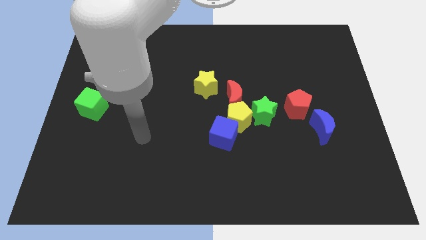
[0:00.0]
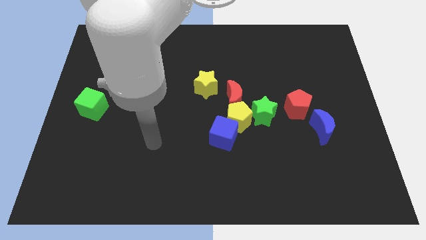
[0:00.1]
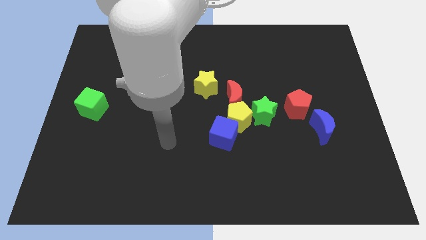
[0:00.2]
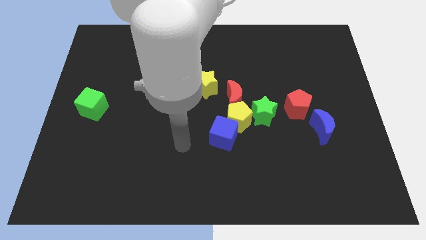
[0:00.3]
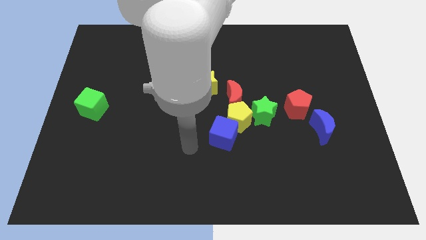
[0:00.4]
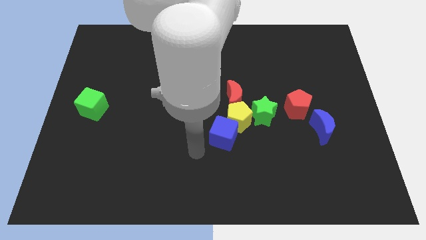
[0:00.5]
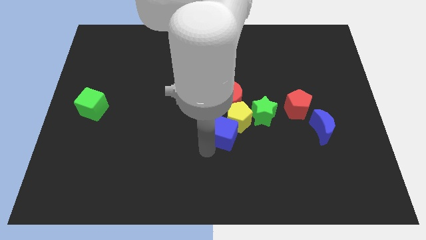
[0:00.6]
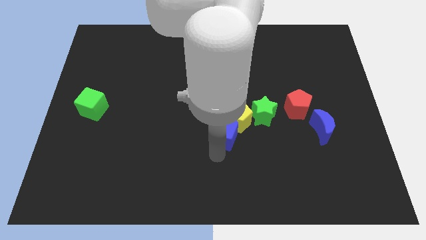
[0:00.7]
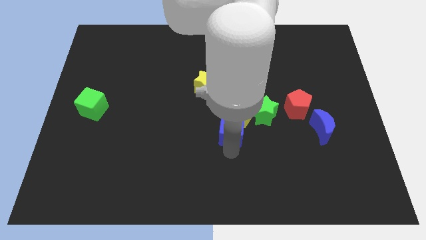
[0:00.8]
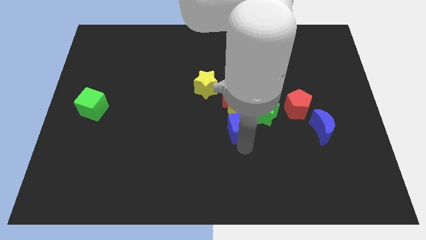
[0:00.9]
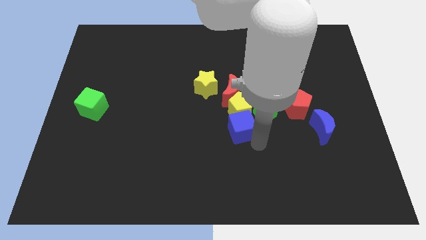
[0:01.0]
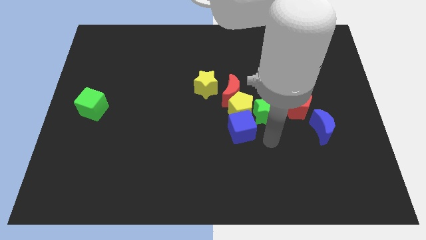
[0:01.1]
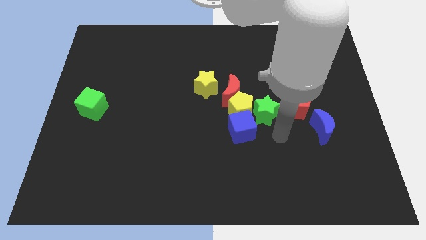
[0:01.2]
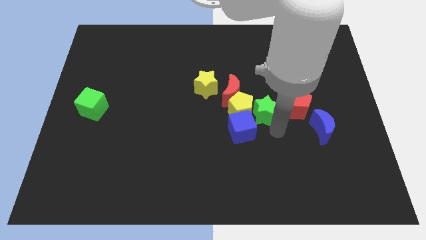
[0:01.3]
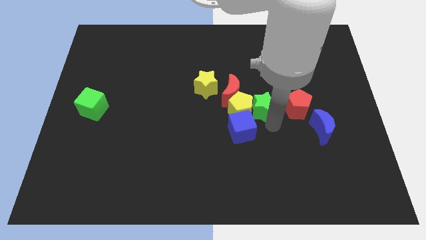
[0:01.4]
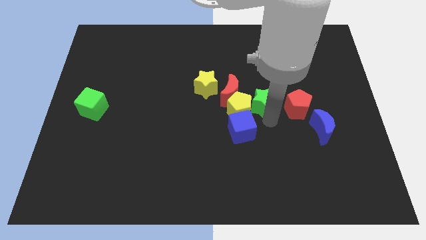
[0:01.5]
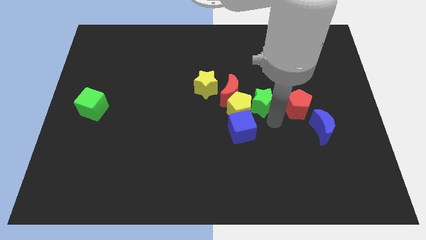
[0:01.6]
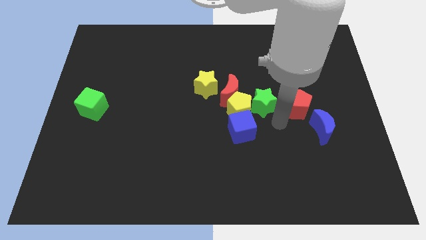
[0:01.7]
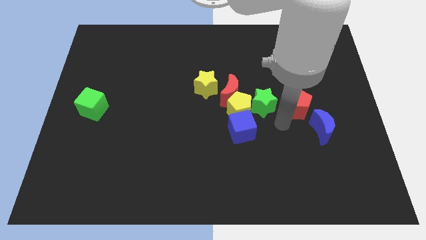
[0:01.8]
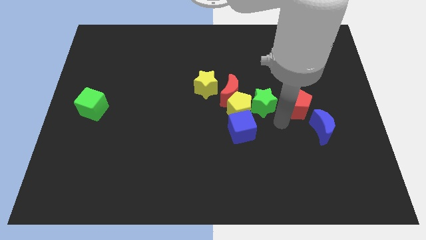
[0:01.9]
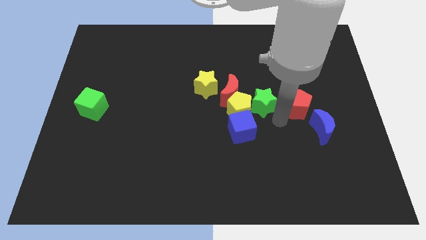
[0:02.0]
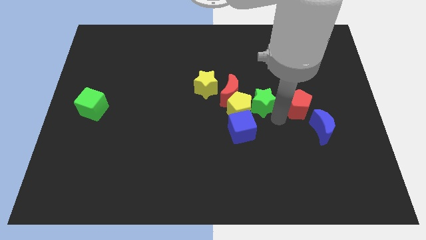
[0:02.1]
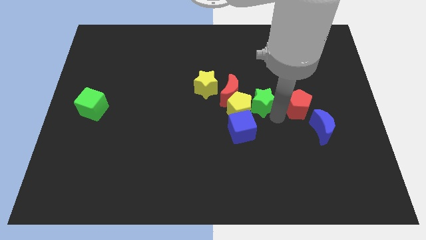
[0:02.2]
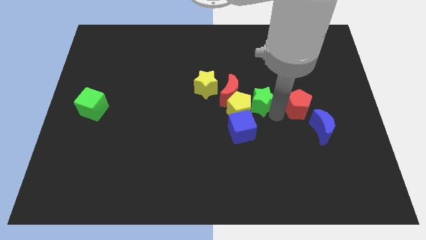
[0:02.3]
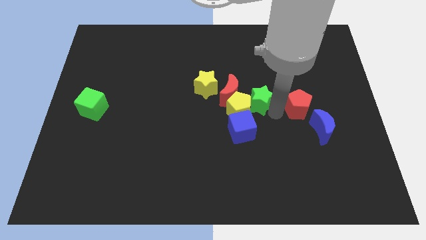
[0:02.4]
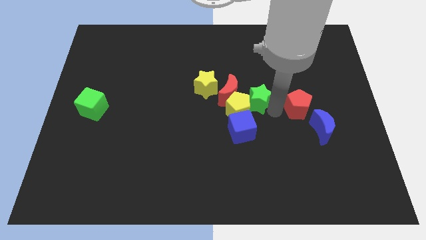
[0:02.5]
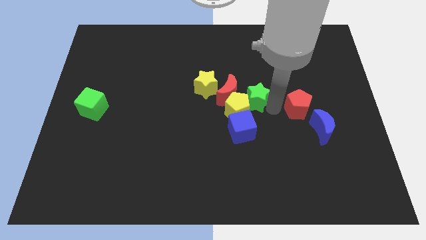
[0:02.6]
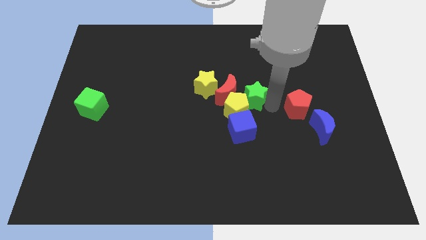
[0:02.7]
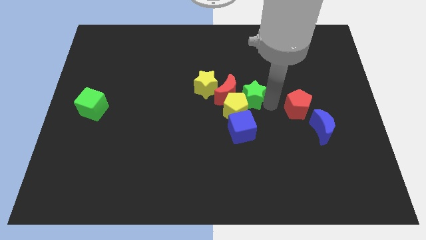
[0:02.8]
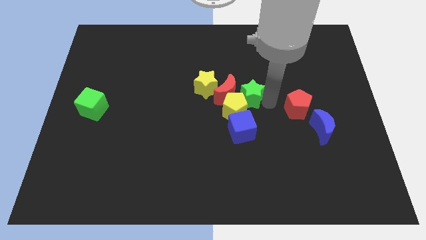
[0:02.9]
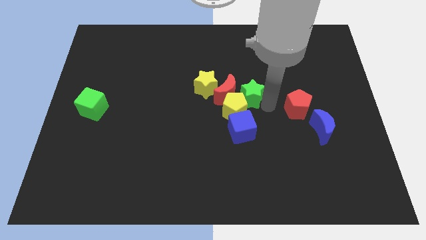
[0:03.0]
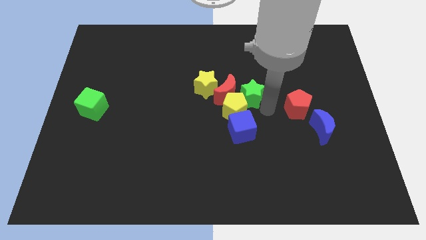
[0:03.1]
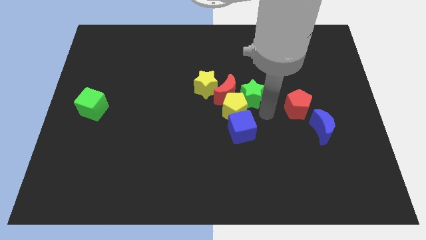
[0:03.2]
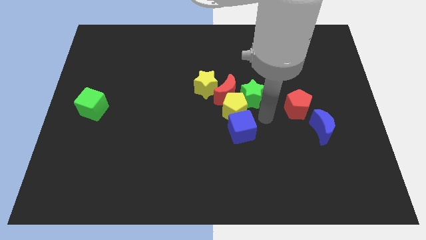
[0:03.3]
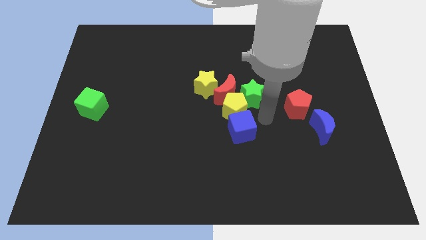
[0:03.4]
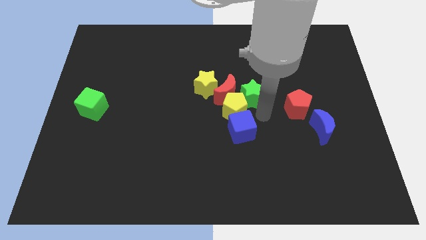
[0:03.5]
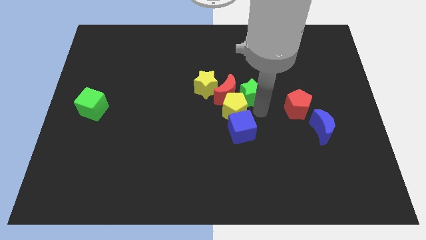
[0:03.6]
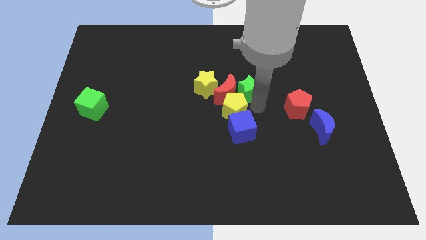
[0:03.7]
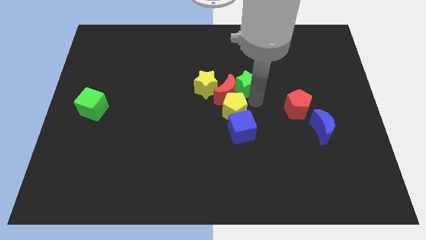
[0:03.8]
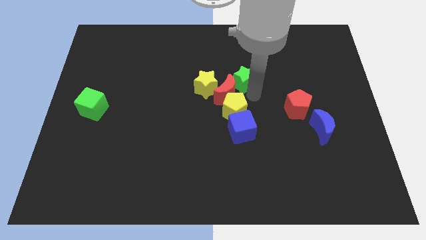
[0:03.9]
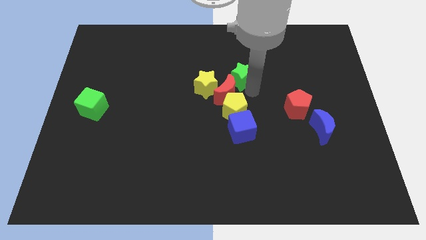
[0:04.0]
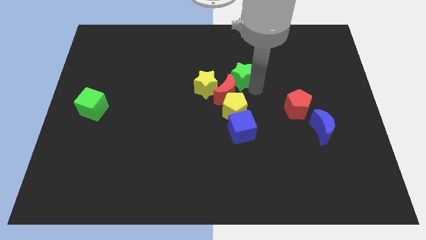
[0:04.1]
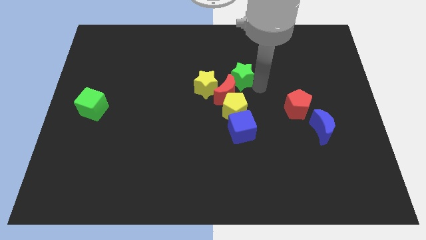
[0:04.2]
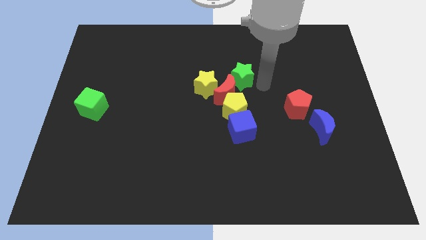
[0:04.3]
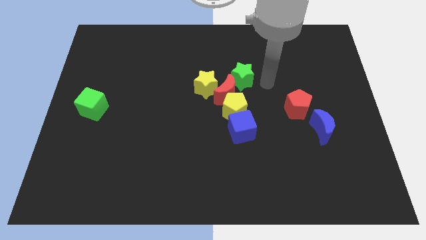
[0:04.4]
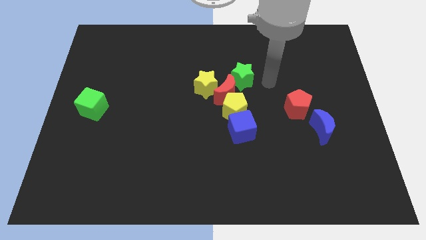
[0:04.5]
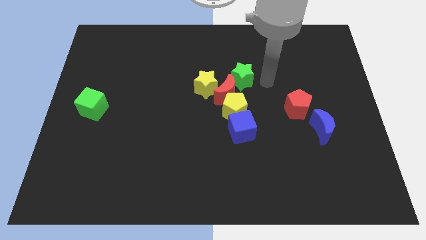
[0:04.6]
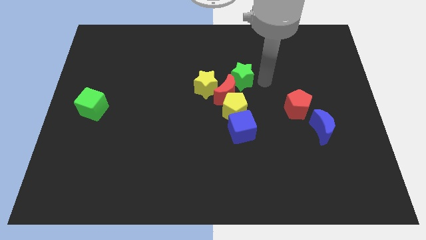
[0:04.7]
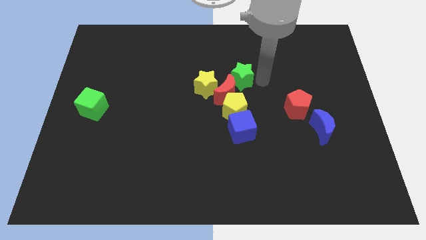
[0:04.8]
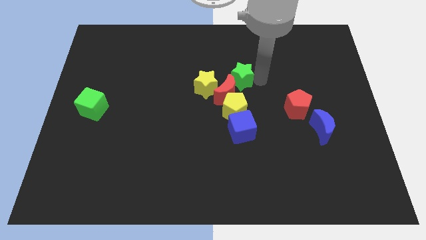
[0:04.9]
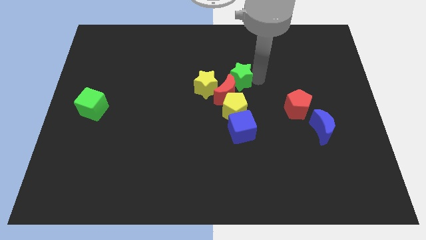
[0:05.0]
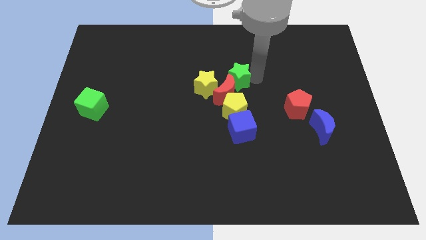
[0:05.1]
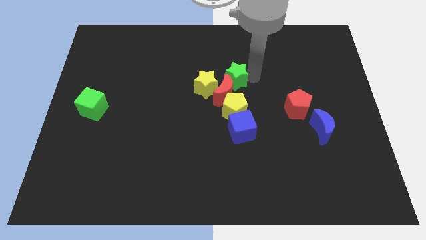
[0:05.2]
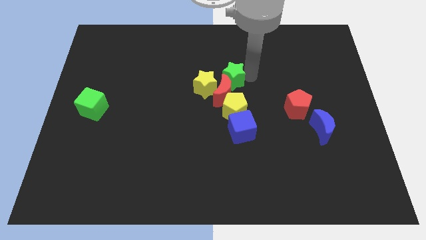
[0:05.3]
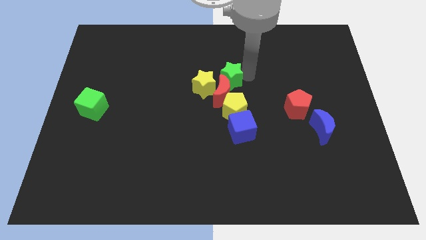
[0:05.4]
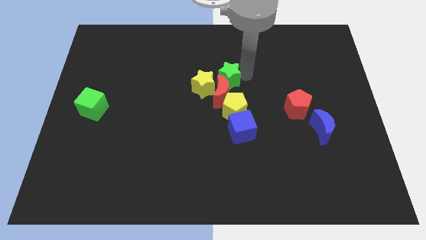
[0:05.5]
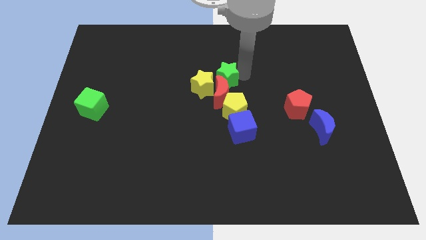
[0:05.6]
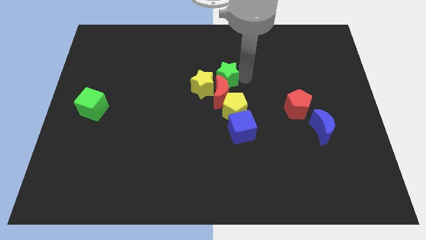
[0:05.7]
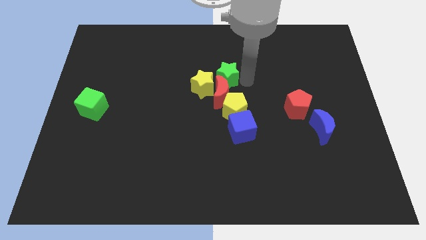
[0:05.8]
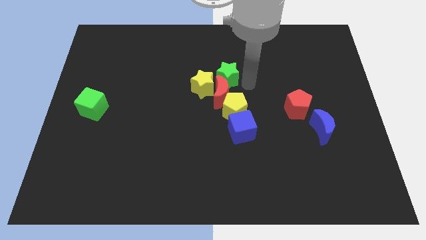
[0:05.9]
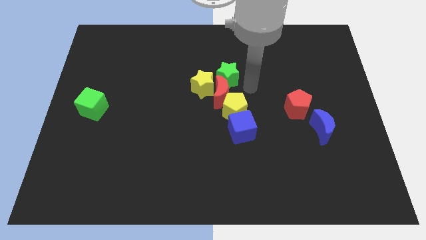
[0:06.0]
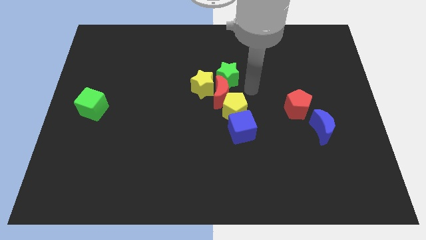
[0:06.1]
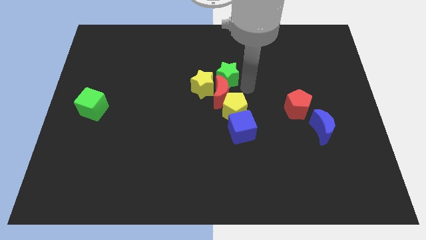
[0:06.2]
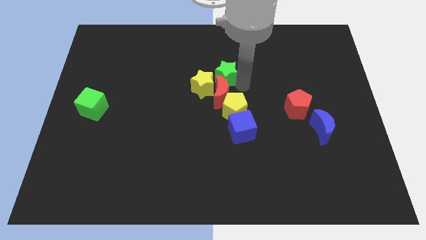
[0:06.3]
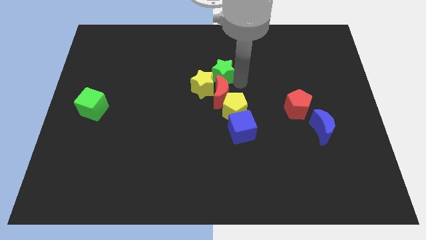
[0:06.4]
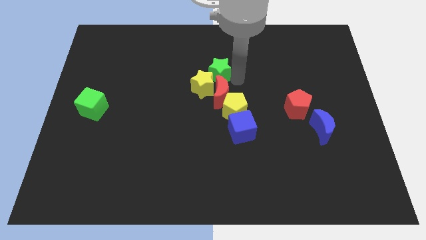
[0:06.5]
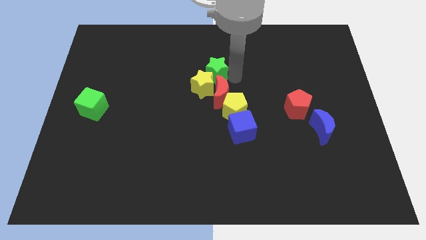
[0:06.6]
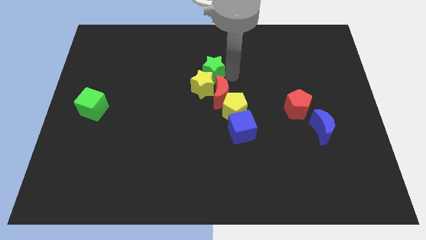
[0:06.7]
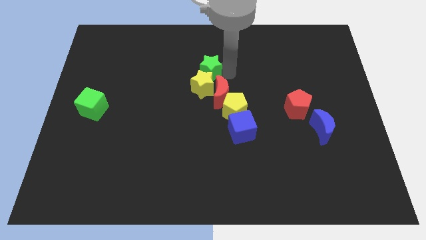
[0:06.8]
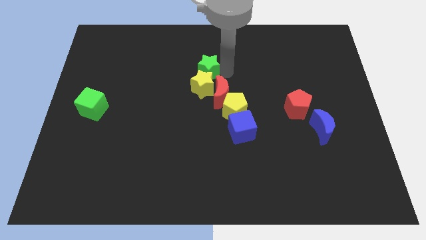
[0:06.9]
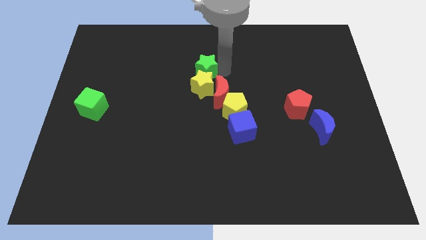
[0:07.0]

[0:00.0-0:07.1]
put the green star diagonally up and to the left of the yellow star

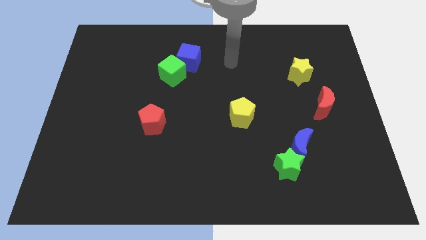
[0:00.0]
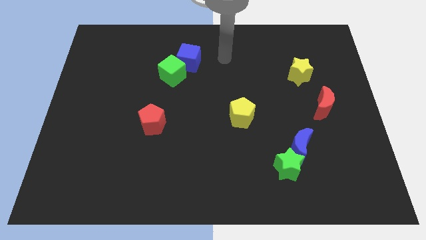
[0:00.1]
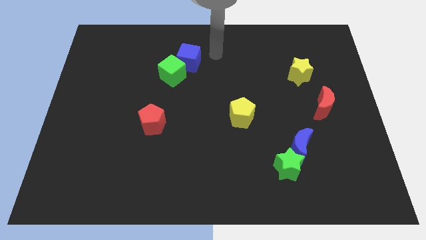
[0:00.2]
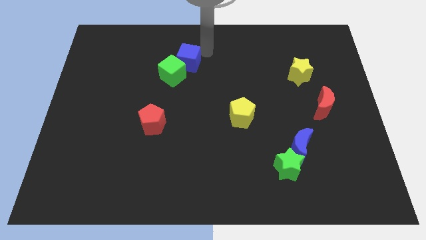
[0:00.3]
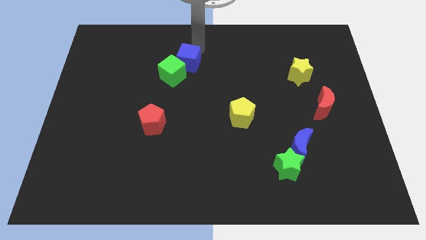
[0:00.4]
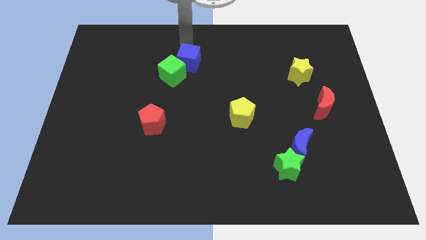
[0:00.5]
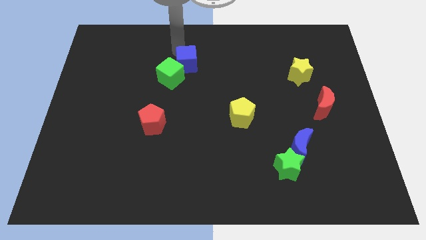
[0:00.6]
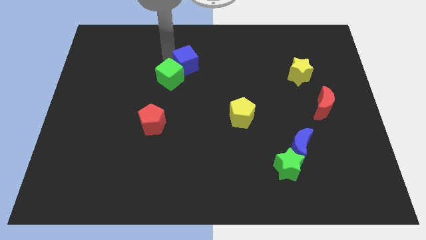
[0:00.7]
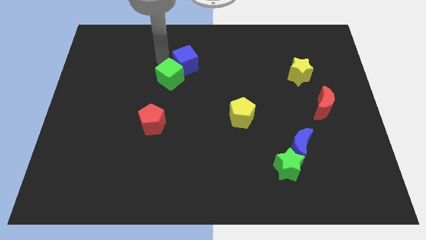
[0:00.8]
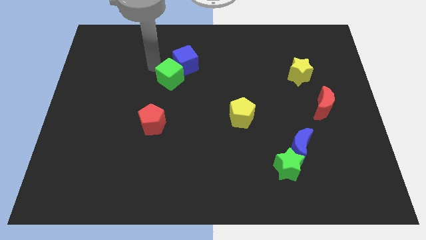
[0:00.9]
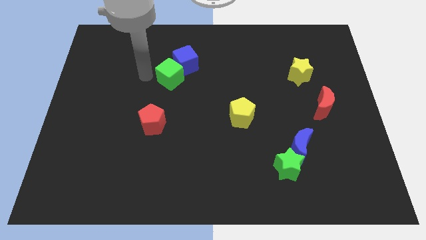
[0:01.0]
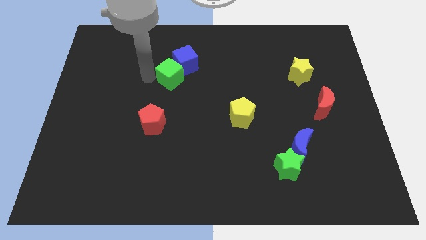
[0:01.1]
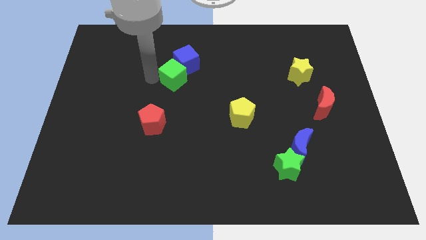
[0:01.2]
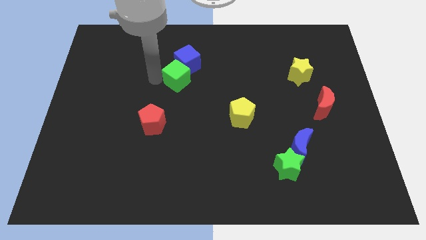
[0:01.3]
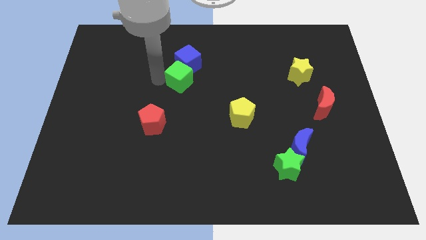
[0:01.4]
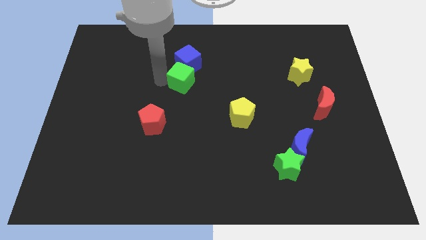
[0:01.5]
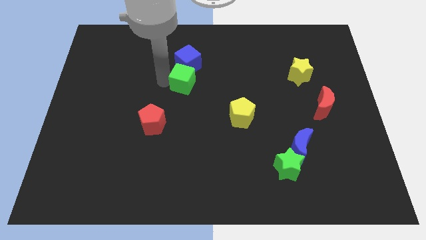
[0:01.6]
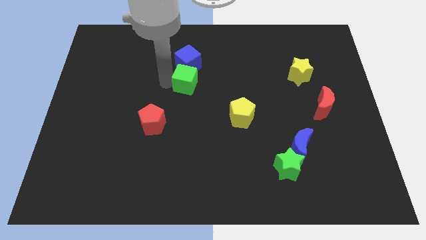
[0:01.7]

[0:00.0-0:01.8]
move the green cube diagonally down and to the right of the blue cube
